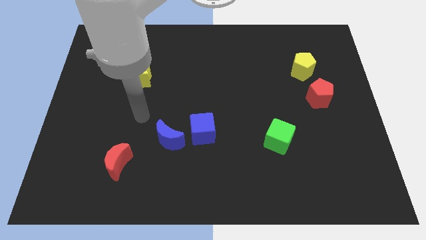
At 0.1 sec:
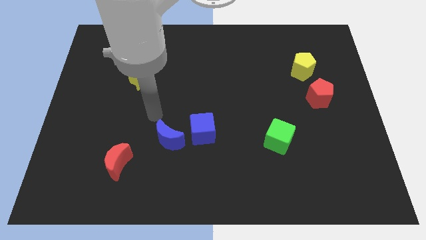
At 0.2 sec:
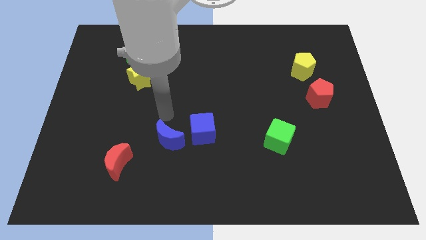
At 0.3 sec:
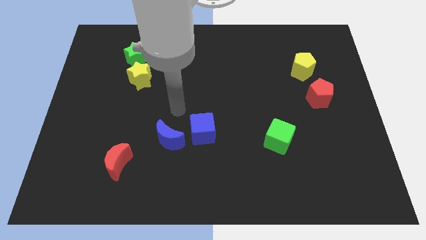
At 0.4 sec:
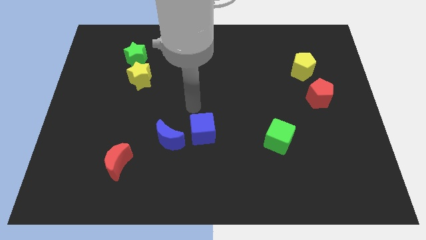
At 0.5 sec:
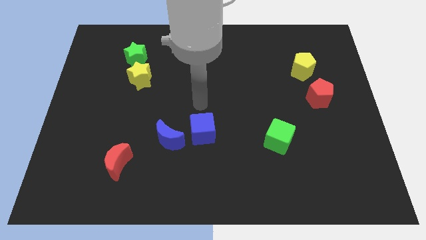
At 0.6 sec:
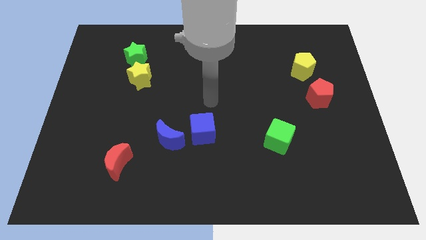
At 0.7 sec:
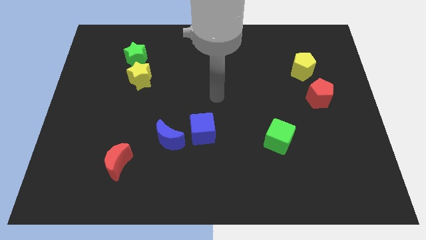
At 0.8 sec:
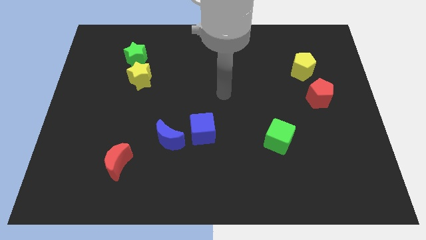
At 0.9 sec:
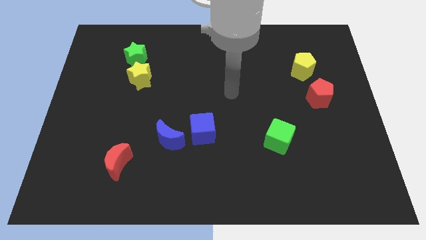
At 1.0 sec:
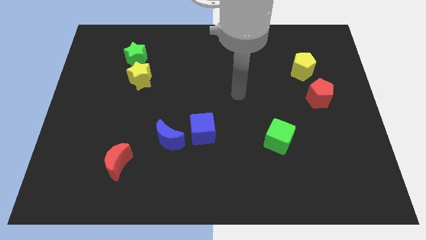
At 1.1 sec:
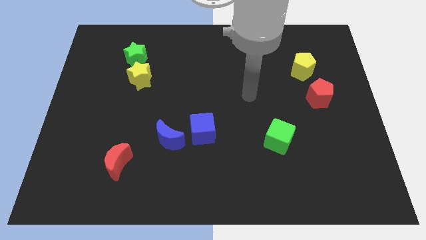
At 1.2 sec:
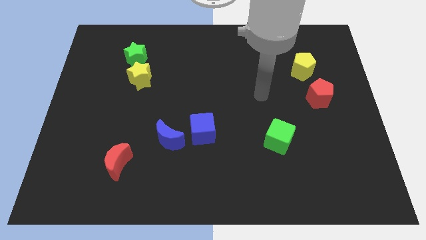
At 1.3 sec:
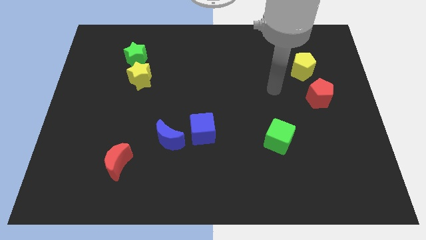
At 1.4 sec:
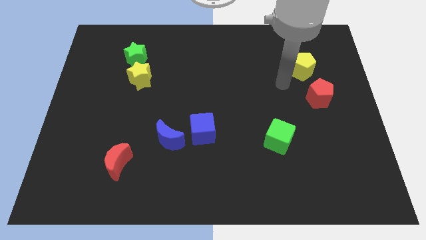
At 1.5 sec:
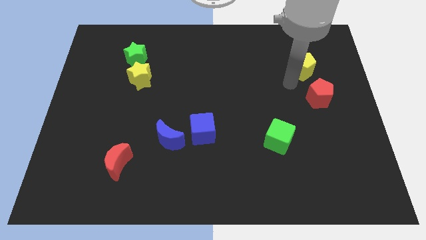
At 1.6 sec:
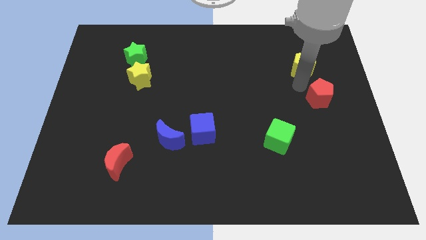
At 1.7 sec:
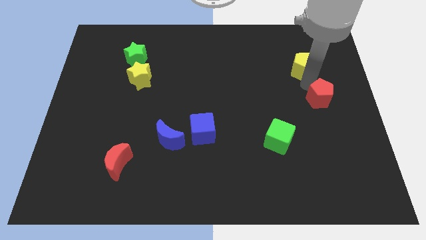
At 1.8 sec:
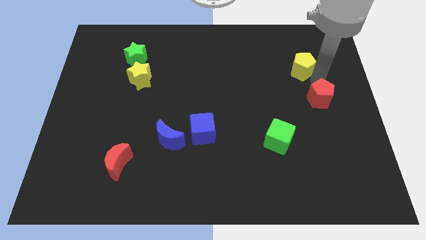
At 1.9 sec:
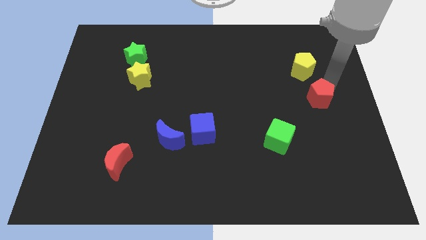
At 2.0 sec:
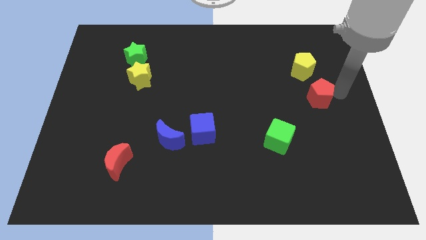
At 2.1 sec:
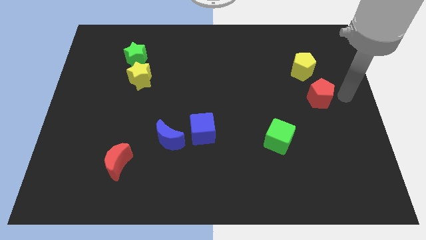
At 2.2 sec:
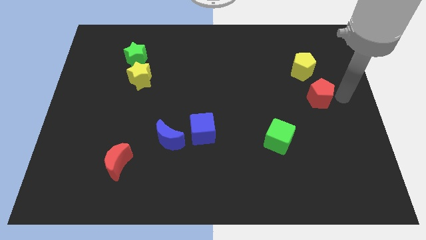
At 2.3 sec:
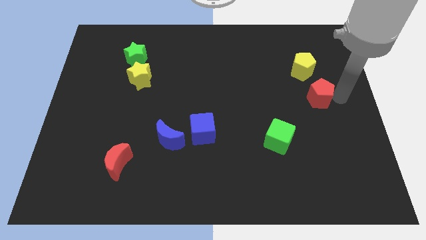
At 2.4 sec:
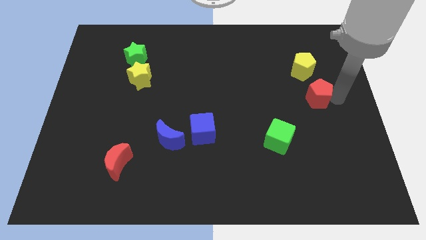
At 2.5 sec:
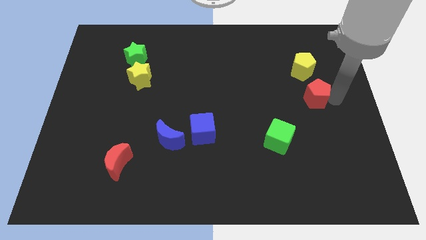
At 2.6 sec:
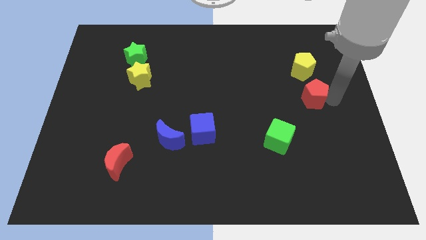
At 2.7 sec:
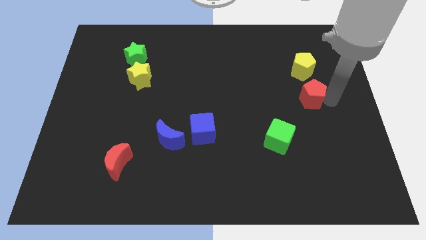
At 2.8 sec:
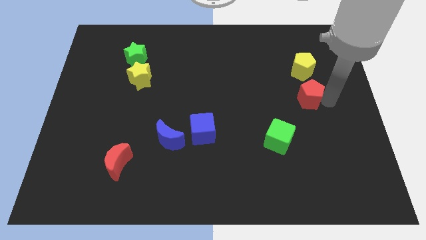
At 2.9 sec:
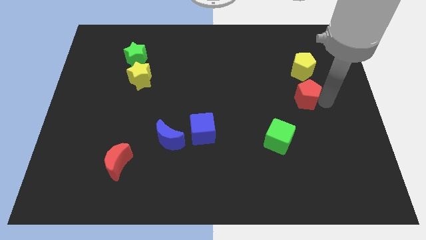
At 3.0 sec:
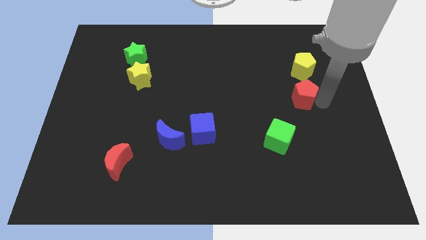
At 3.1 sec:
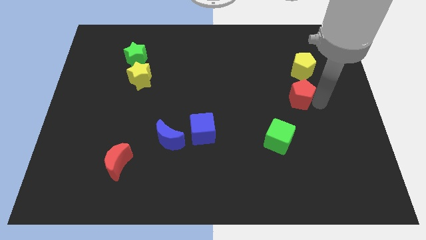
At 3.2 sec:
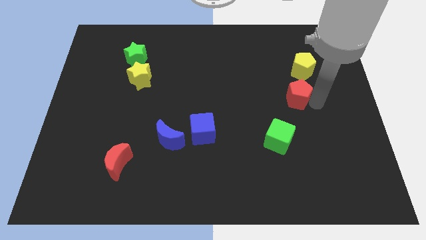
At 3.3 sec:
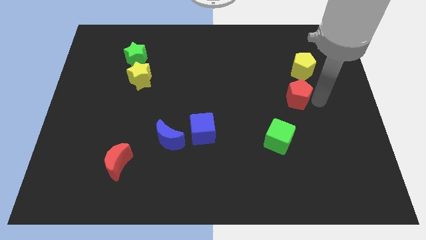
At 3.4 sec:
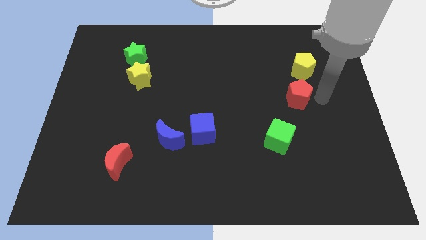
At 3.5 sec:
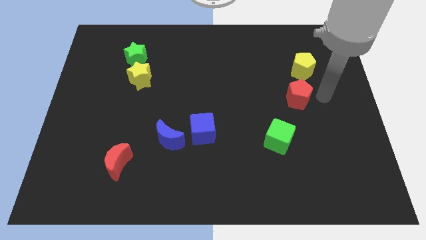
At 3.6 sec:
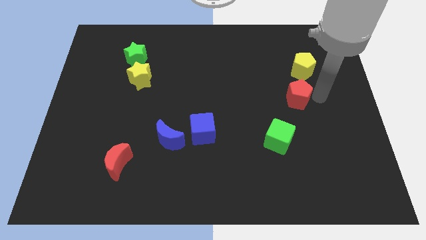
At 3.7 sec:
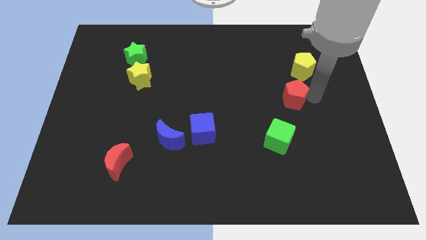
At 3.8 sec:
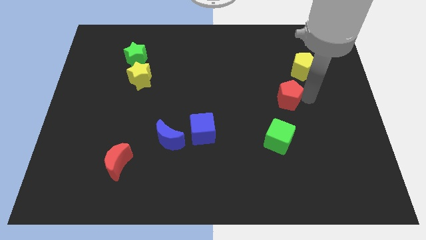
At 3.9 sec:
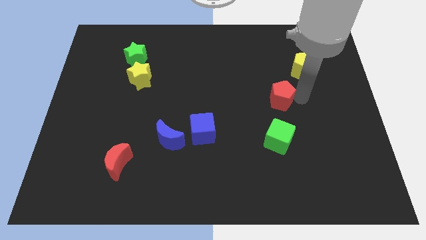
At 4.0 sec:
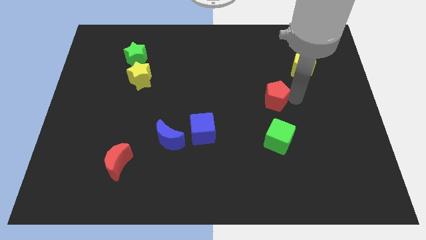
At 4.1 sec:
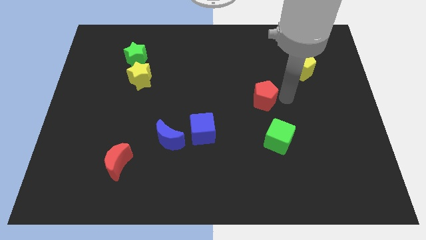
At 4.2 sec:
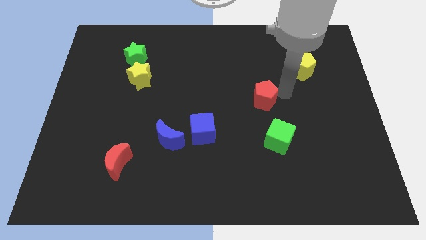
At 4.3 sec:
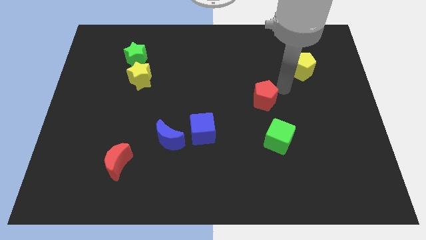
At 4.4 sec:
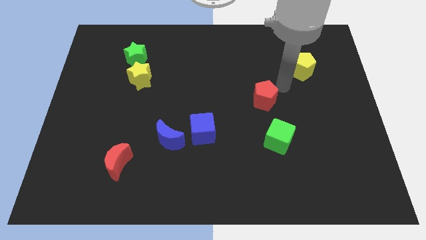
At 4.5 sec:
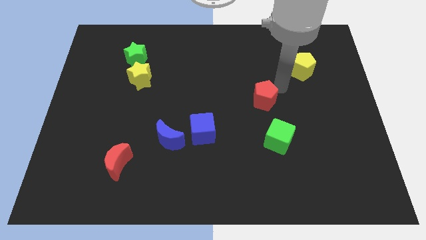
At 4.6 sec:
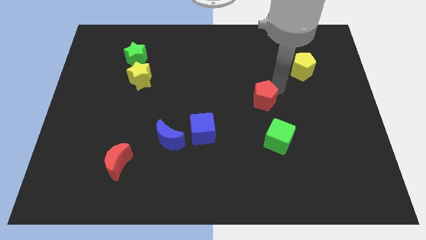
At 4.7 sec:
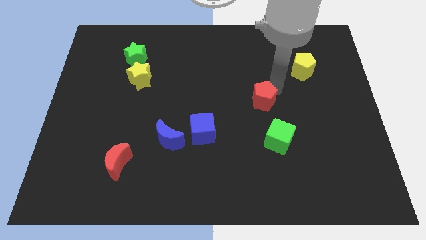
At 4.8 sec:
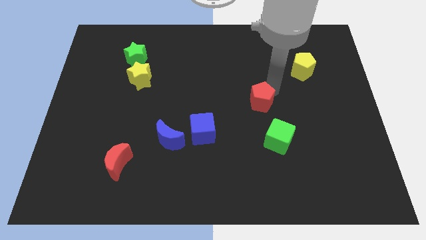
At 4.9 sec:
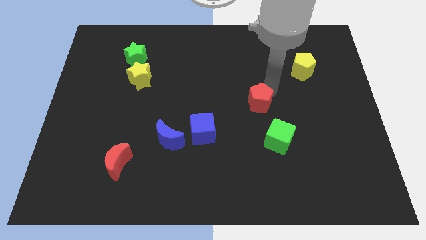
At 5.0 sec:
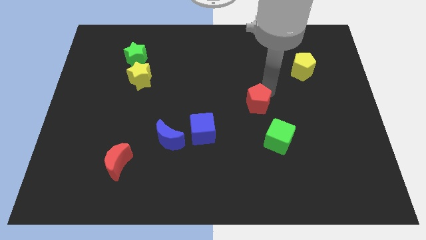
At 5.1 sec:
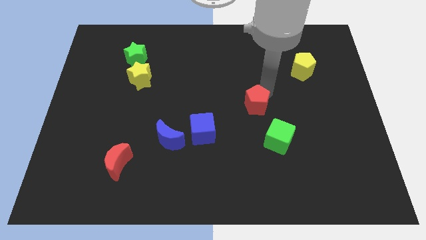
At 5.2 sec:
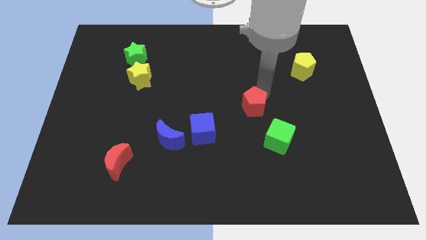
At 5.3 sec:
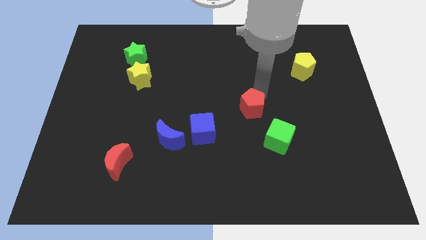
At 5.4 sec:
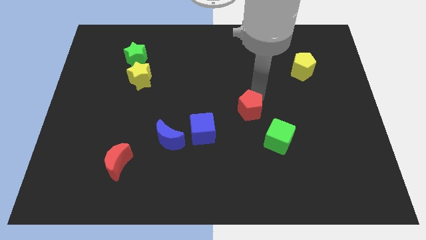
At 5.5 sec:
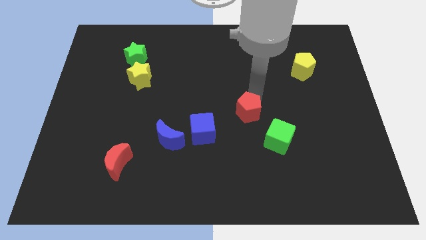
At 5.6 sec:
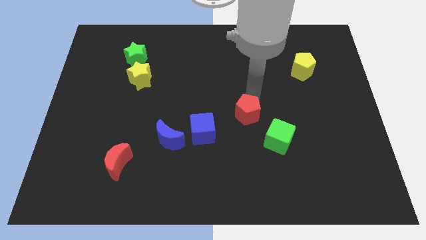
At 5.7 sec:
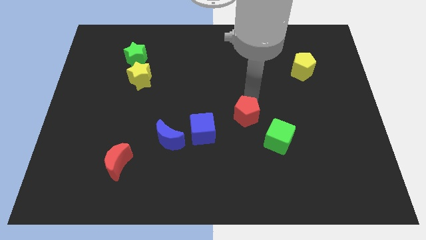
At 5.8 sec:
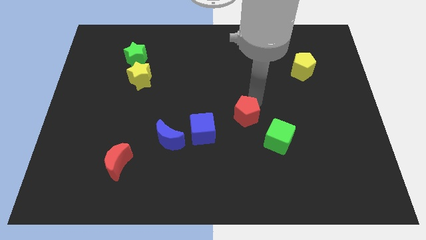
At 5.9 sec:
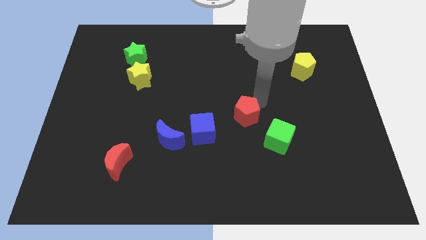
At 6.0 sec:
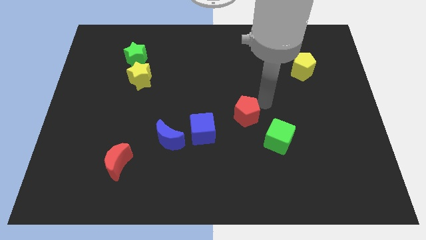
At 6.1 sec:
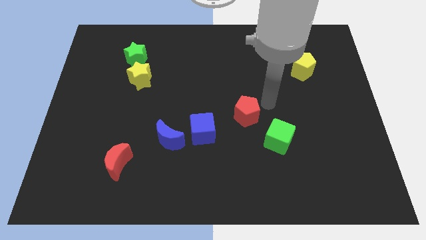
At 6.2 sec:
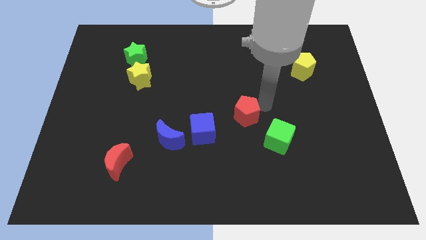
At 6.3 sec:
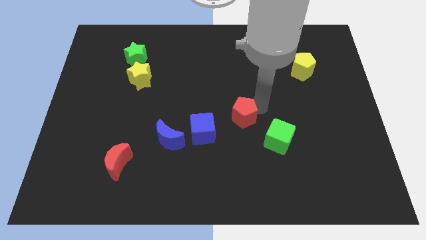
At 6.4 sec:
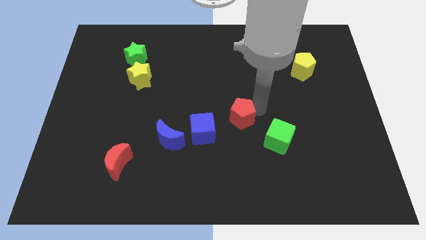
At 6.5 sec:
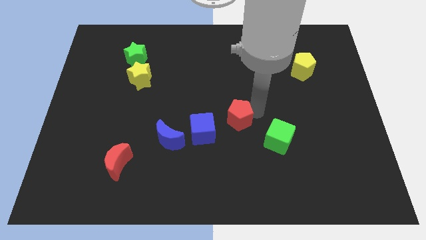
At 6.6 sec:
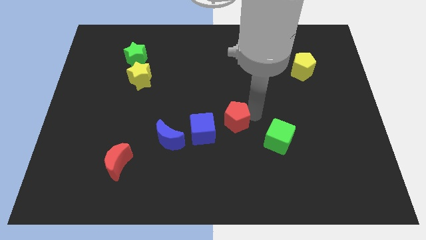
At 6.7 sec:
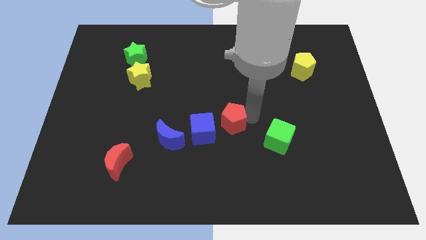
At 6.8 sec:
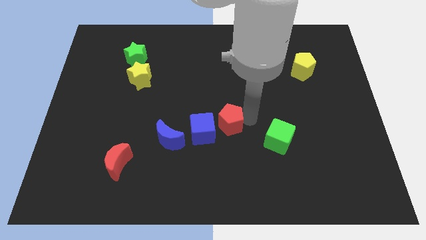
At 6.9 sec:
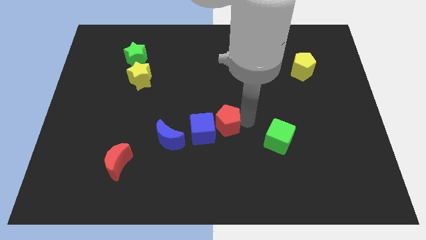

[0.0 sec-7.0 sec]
put the red pentagon close to the blue cube

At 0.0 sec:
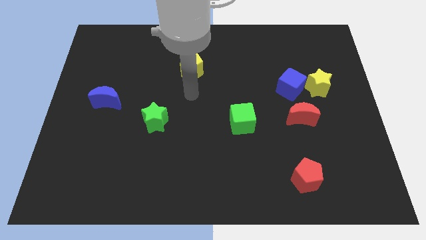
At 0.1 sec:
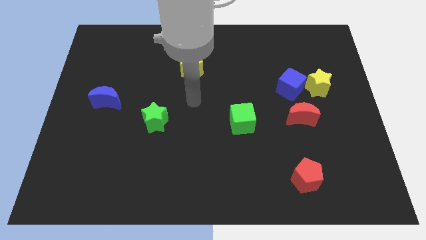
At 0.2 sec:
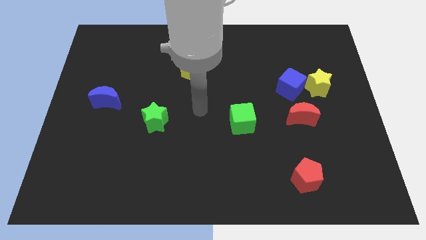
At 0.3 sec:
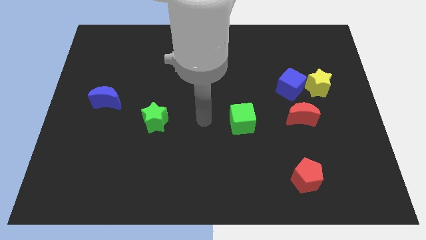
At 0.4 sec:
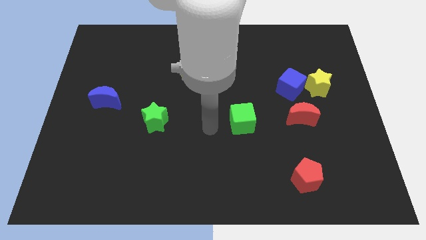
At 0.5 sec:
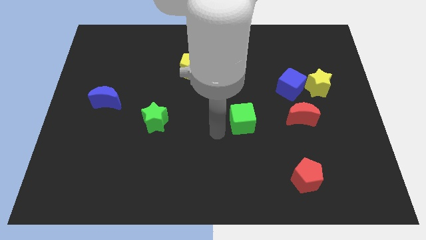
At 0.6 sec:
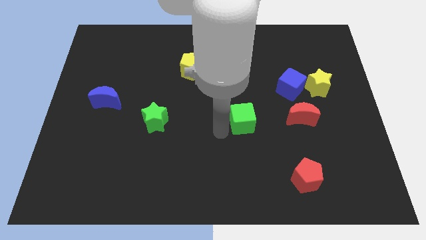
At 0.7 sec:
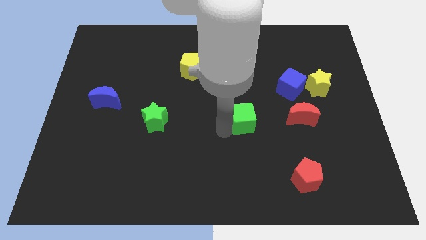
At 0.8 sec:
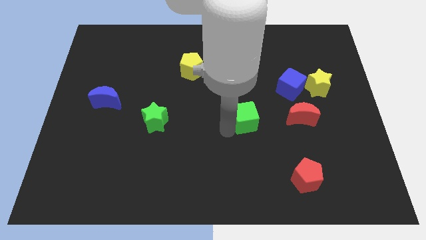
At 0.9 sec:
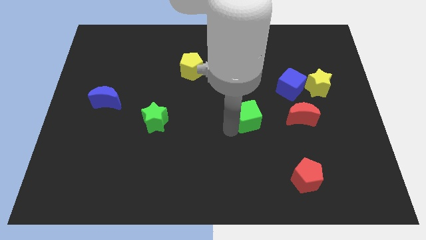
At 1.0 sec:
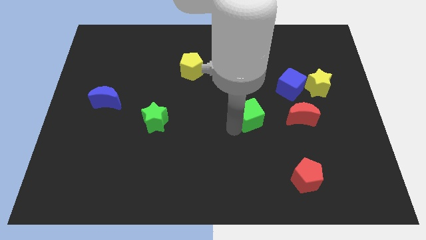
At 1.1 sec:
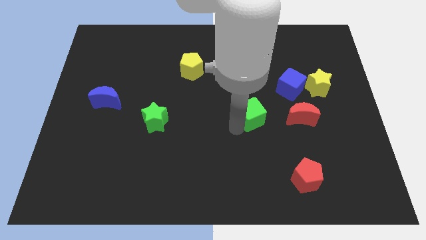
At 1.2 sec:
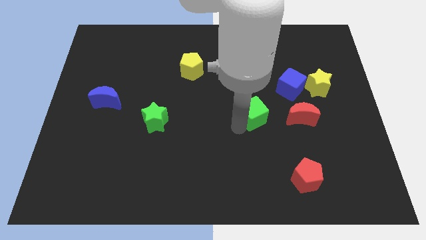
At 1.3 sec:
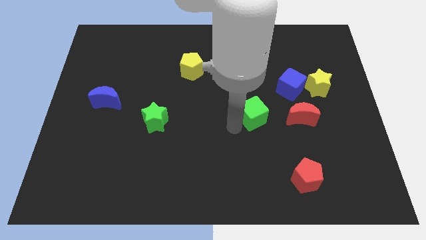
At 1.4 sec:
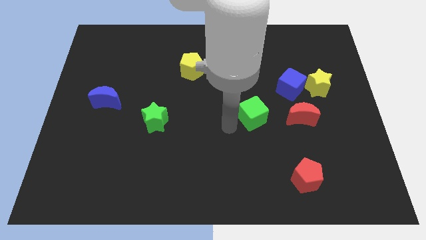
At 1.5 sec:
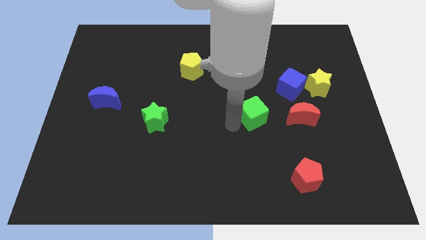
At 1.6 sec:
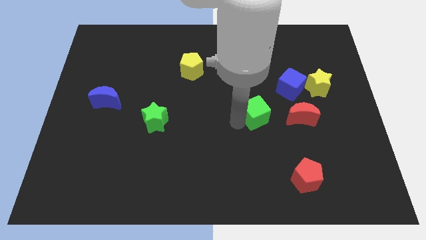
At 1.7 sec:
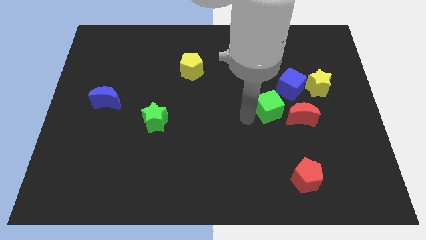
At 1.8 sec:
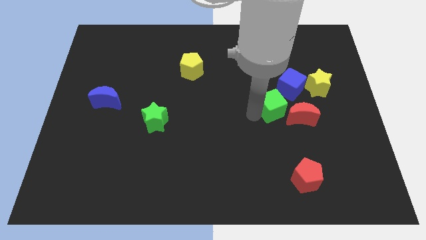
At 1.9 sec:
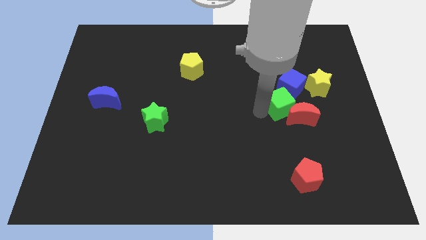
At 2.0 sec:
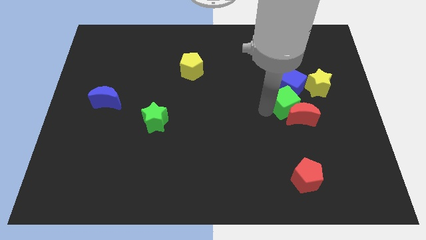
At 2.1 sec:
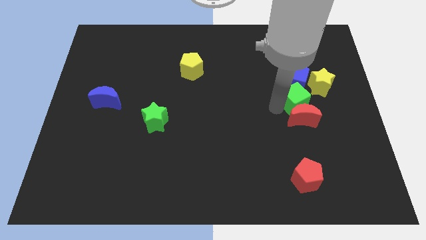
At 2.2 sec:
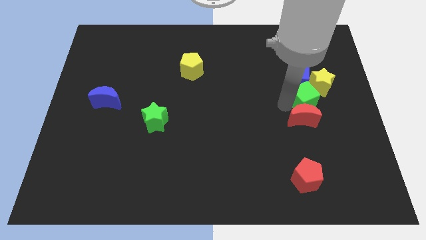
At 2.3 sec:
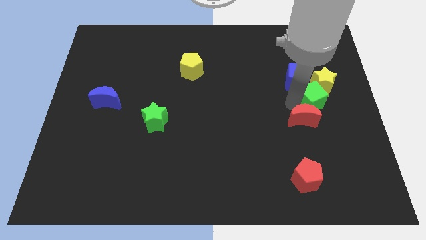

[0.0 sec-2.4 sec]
push the green cube next to the yellow star
